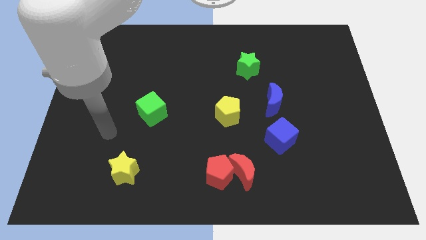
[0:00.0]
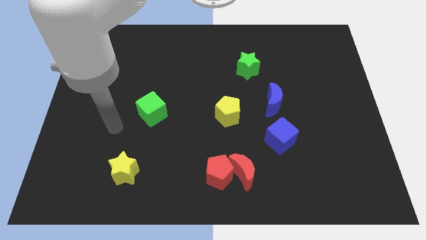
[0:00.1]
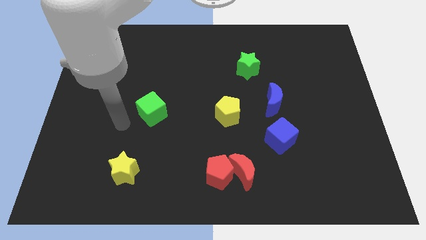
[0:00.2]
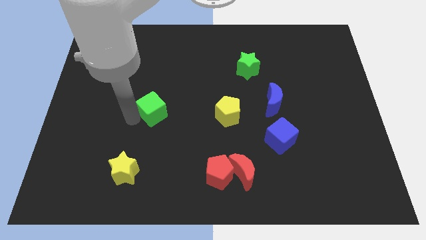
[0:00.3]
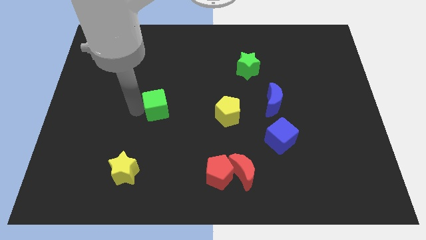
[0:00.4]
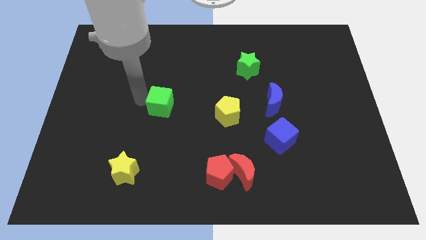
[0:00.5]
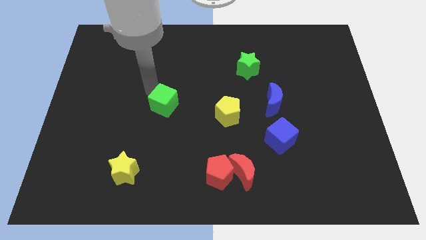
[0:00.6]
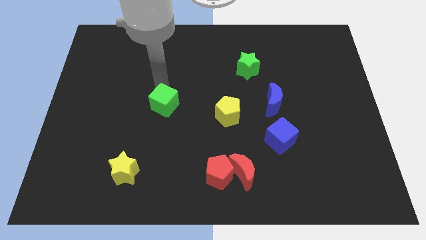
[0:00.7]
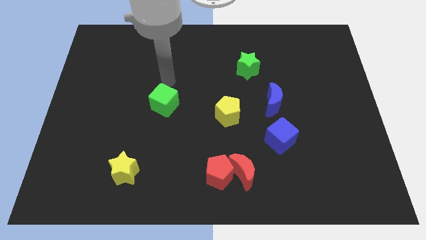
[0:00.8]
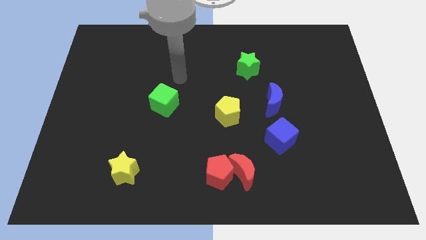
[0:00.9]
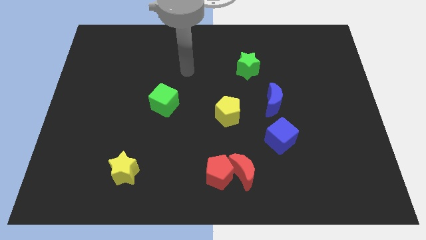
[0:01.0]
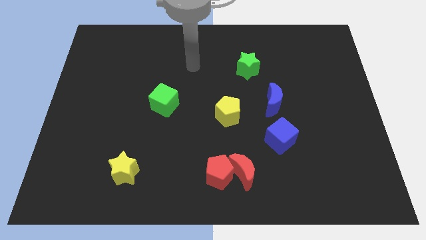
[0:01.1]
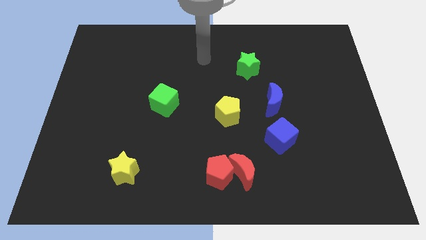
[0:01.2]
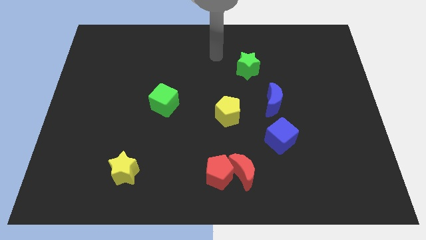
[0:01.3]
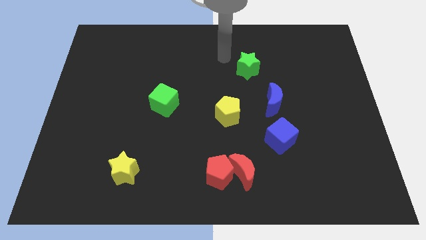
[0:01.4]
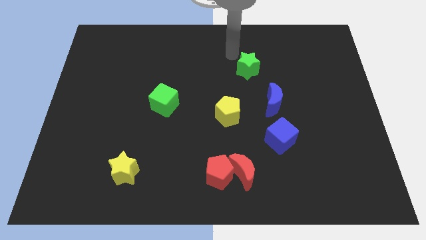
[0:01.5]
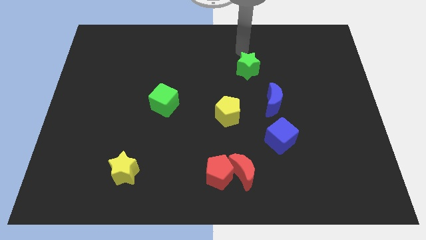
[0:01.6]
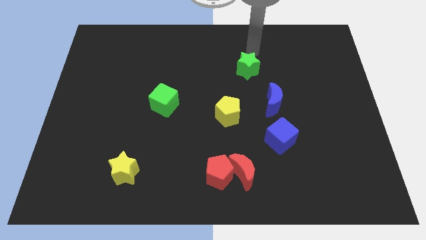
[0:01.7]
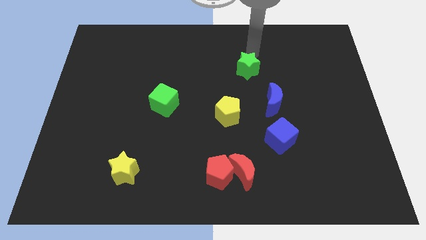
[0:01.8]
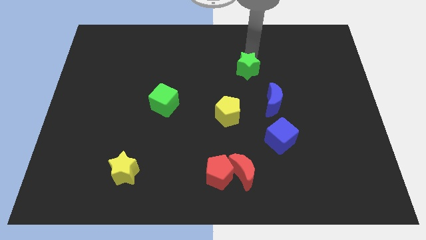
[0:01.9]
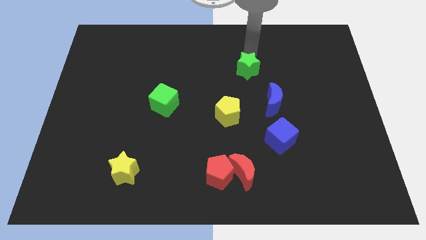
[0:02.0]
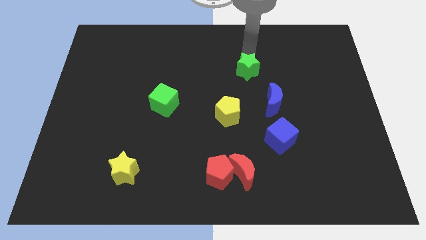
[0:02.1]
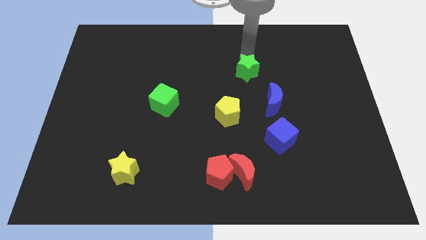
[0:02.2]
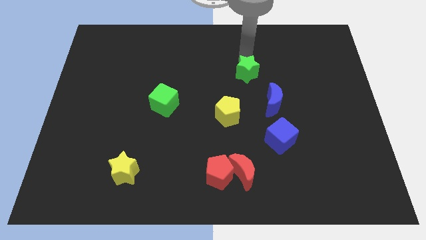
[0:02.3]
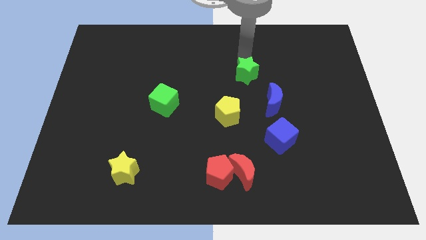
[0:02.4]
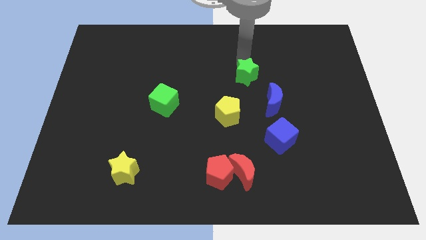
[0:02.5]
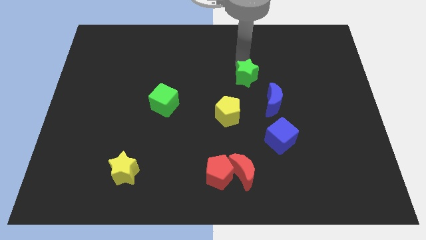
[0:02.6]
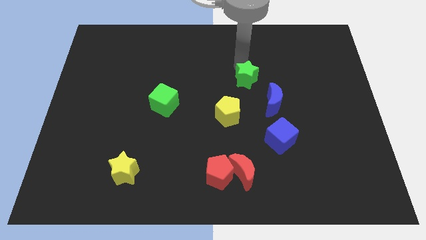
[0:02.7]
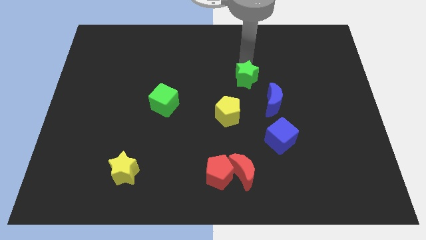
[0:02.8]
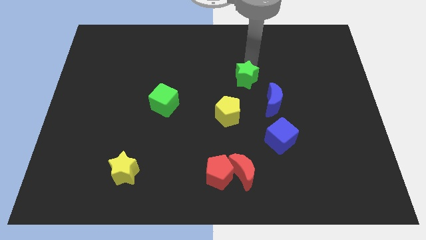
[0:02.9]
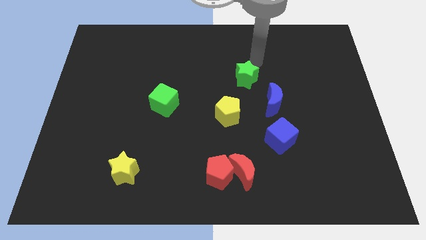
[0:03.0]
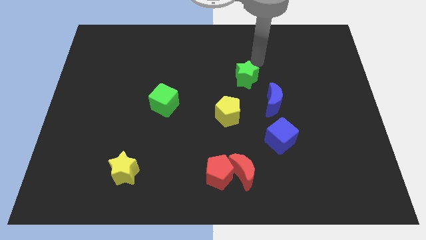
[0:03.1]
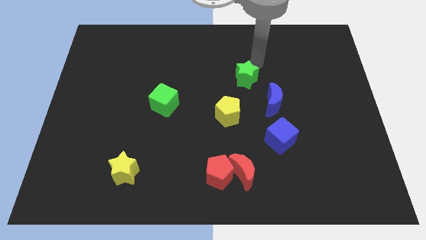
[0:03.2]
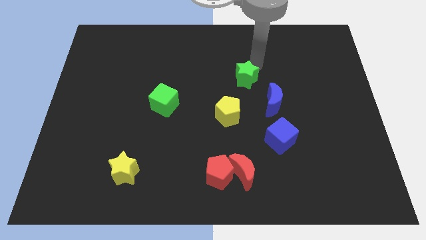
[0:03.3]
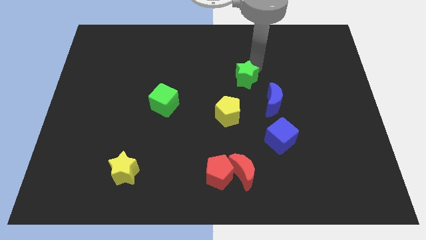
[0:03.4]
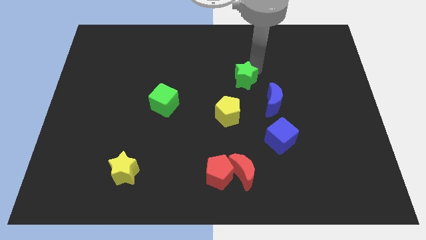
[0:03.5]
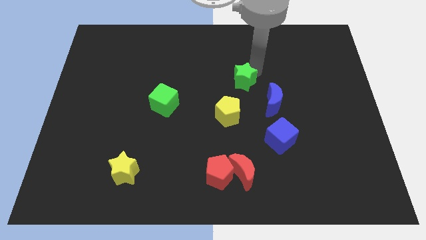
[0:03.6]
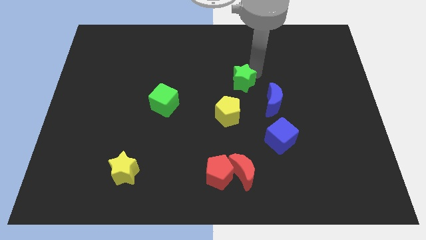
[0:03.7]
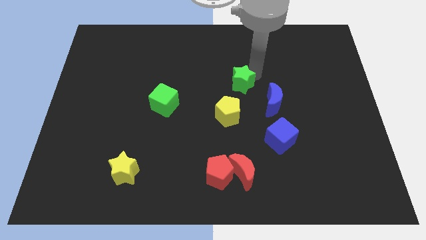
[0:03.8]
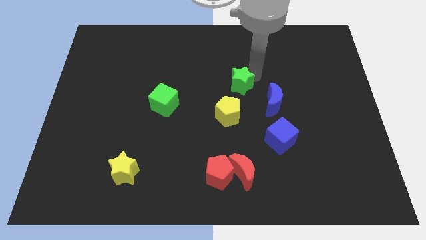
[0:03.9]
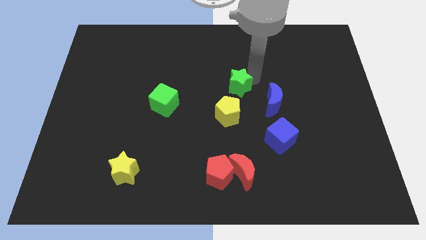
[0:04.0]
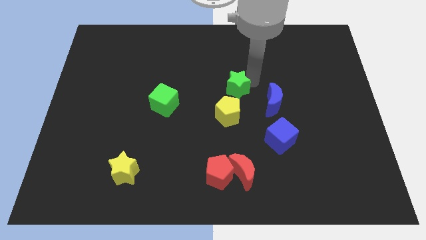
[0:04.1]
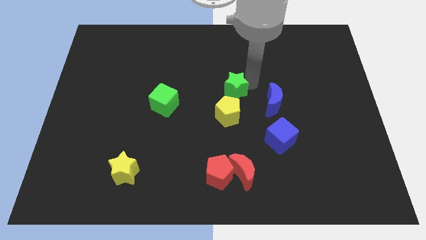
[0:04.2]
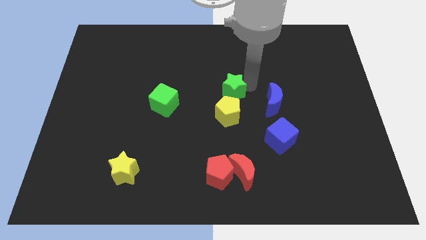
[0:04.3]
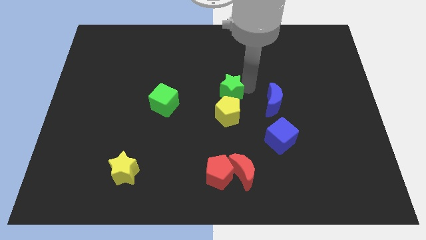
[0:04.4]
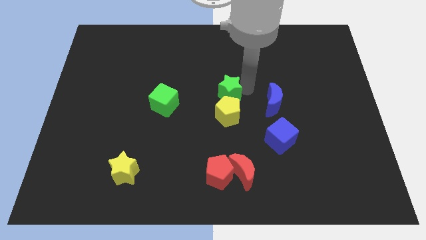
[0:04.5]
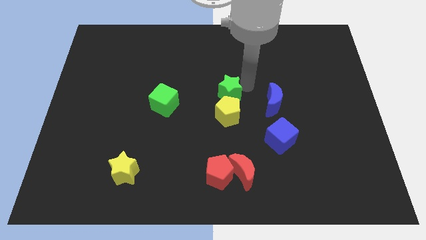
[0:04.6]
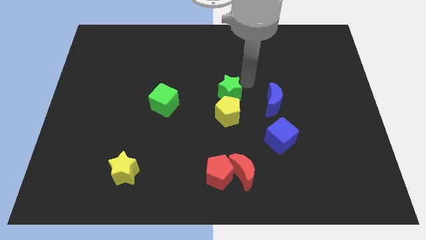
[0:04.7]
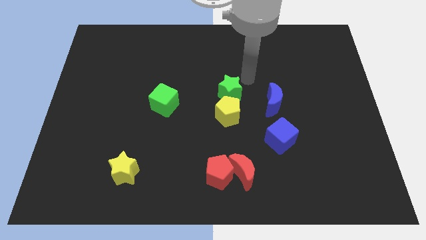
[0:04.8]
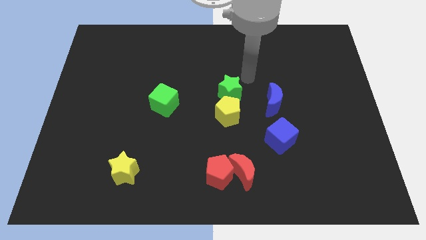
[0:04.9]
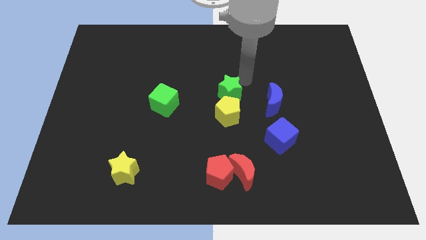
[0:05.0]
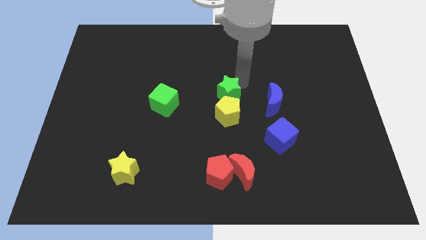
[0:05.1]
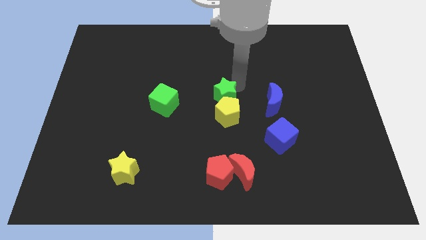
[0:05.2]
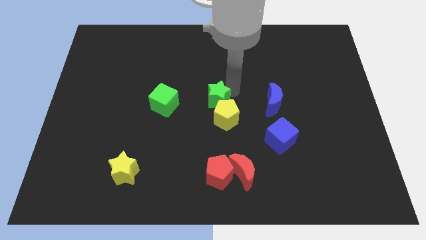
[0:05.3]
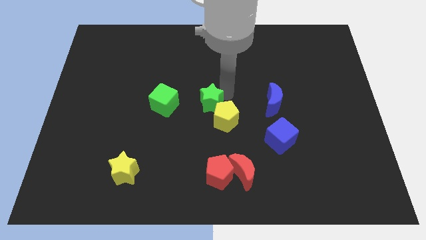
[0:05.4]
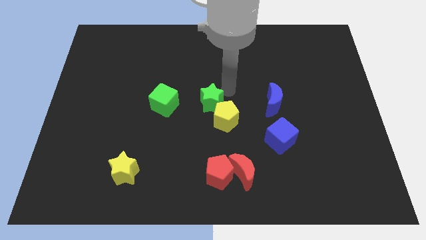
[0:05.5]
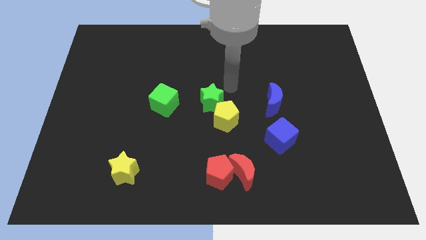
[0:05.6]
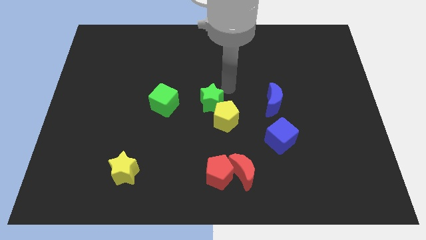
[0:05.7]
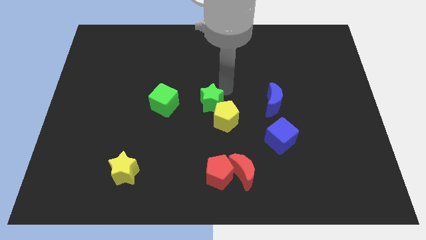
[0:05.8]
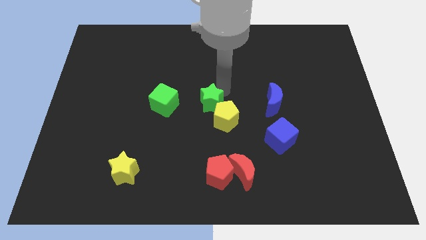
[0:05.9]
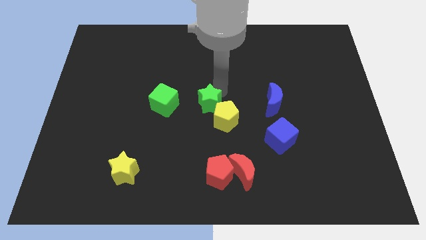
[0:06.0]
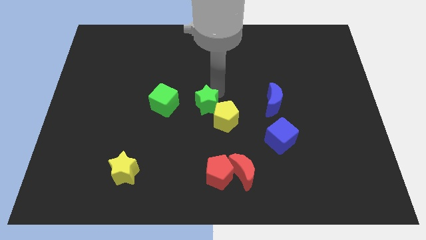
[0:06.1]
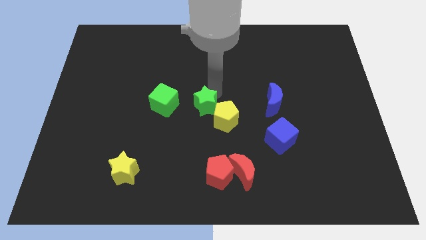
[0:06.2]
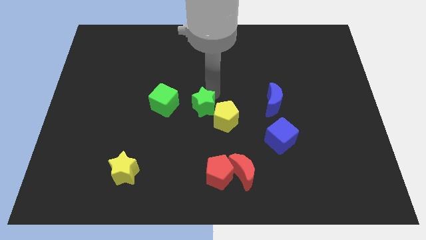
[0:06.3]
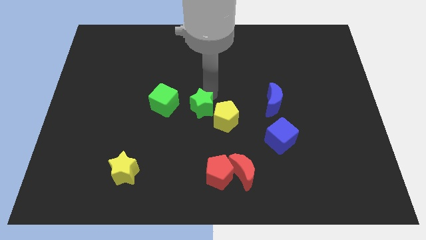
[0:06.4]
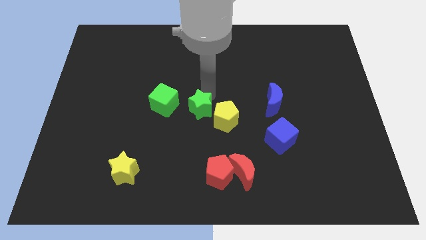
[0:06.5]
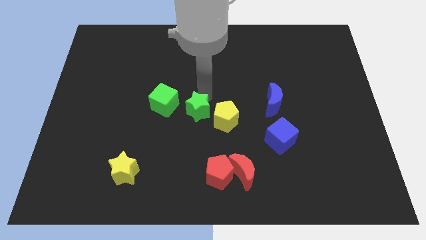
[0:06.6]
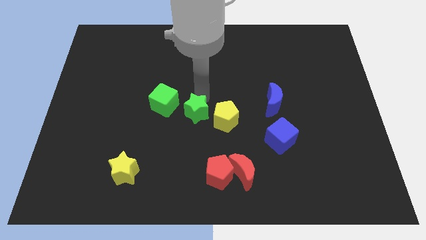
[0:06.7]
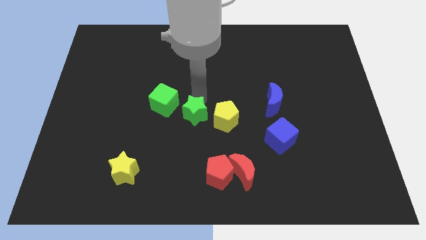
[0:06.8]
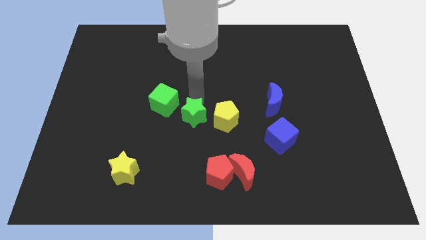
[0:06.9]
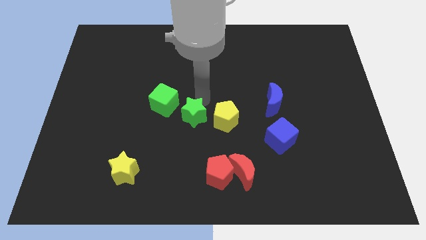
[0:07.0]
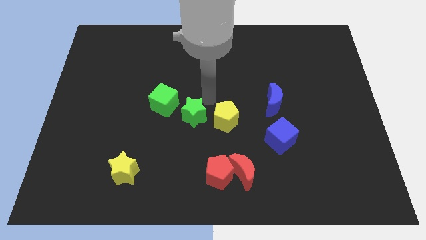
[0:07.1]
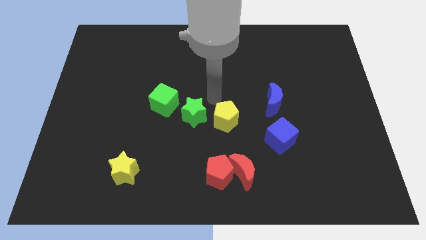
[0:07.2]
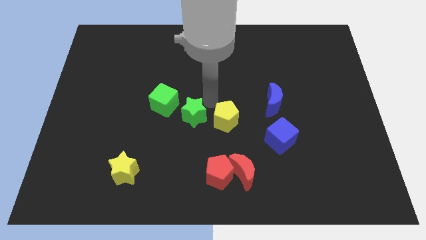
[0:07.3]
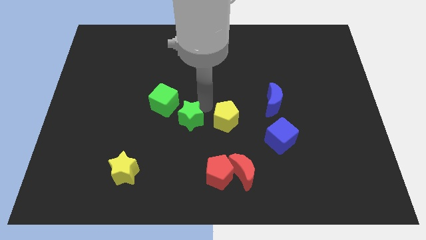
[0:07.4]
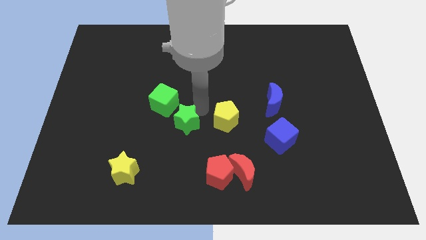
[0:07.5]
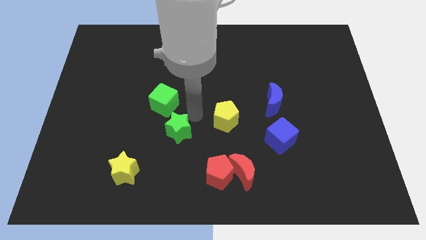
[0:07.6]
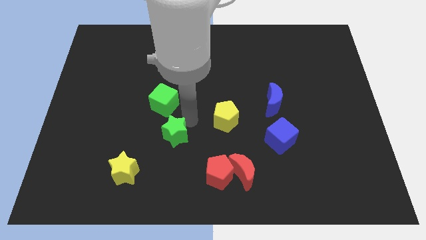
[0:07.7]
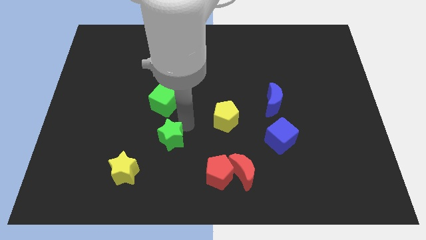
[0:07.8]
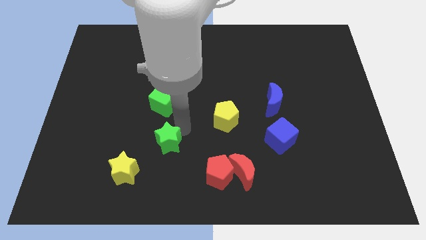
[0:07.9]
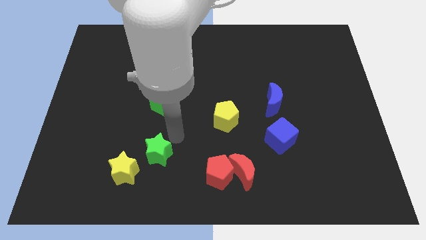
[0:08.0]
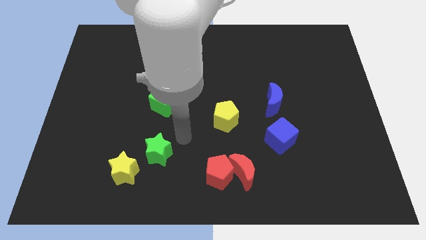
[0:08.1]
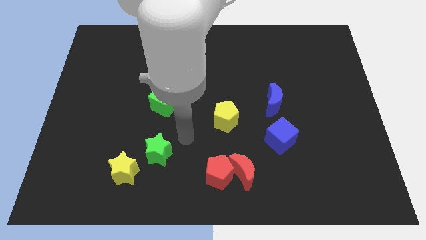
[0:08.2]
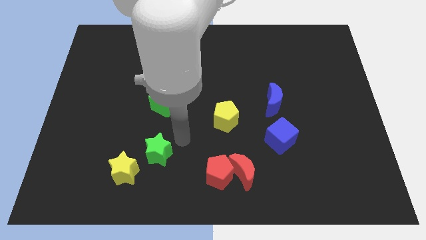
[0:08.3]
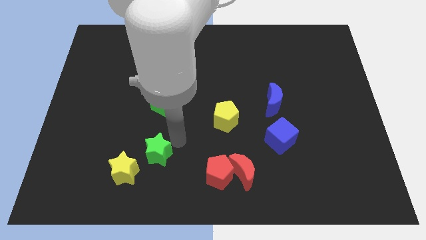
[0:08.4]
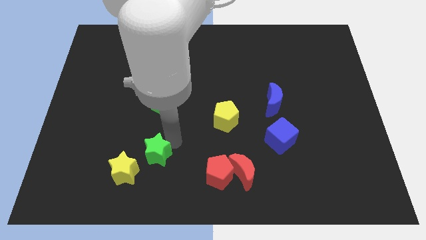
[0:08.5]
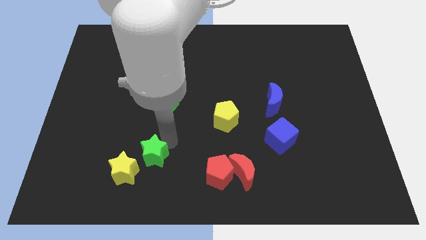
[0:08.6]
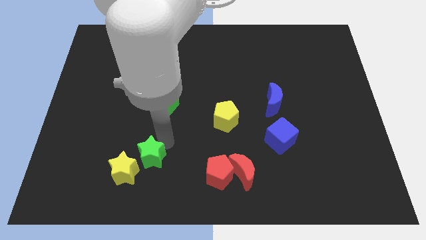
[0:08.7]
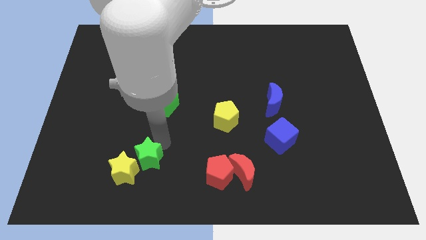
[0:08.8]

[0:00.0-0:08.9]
push the green star close to the yellow star
